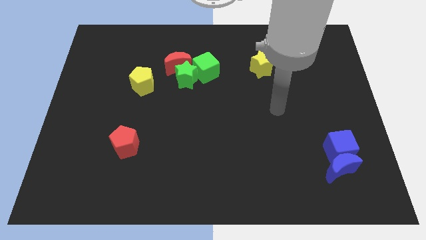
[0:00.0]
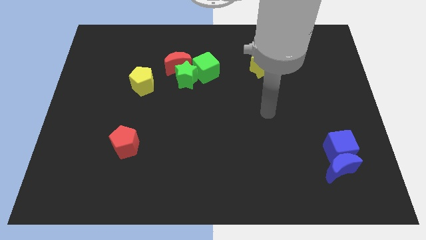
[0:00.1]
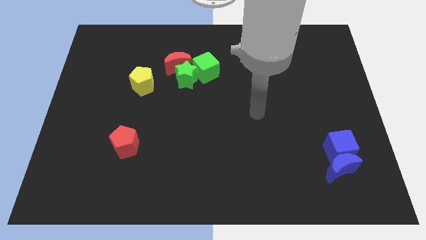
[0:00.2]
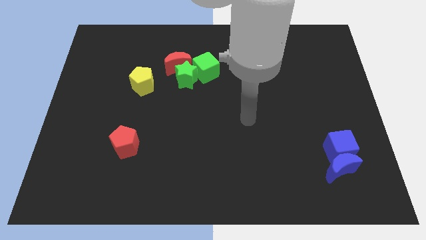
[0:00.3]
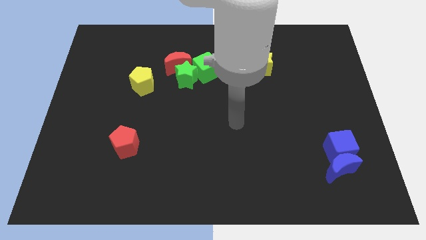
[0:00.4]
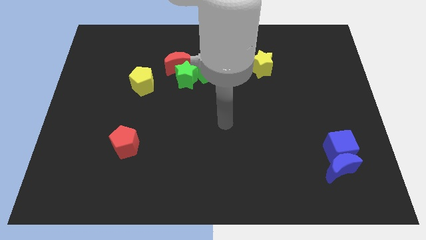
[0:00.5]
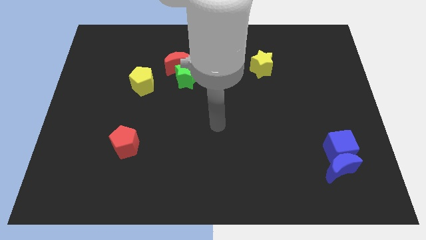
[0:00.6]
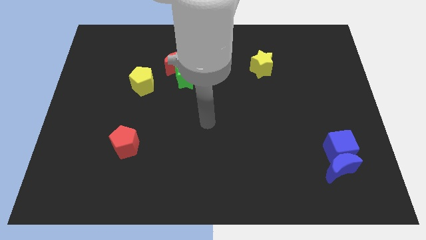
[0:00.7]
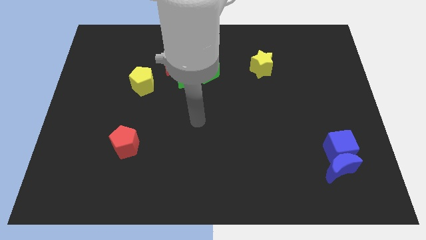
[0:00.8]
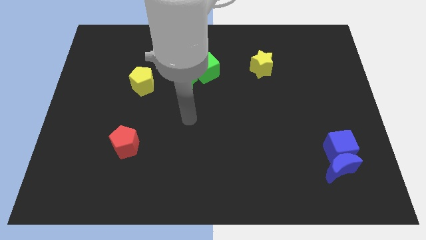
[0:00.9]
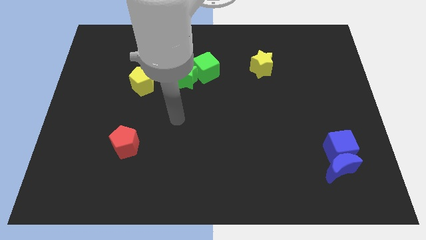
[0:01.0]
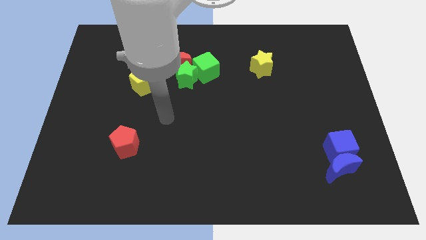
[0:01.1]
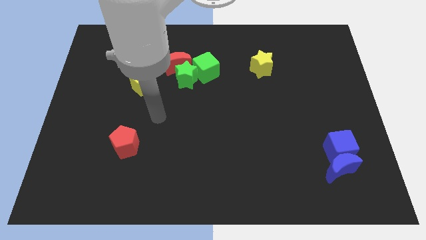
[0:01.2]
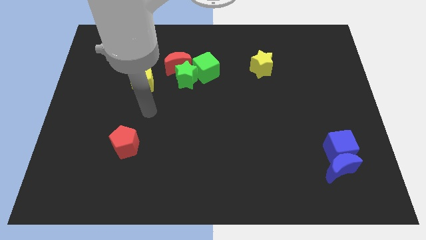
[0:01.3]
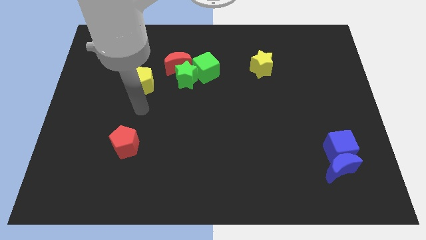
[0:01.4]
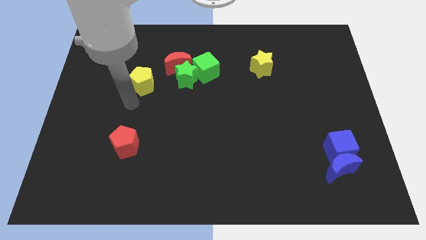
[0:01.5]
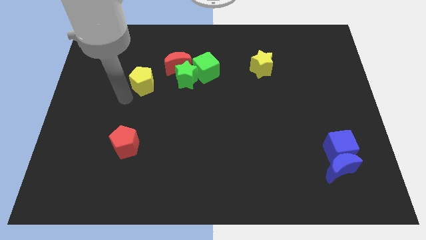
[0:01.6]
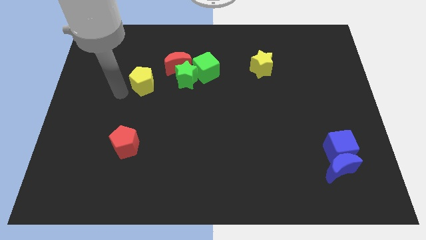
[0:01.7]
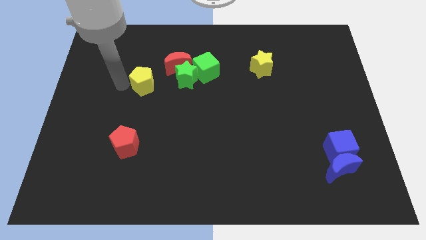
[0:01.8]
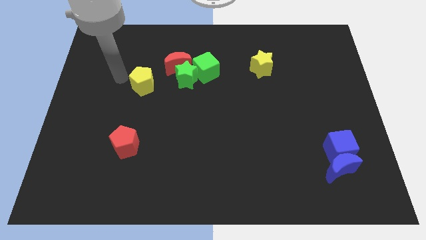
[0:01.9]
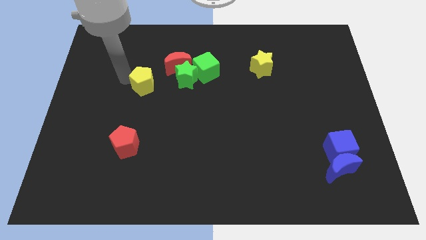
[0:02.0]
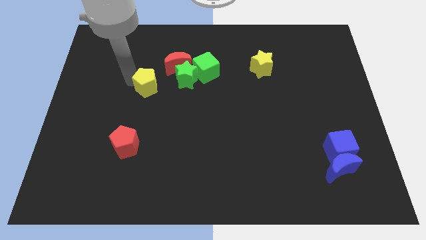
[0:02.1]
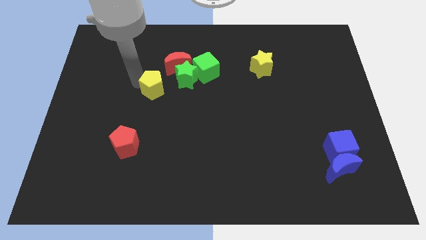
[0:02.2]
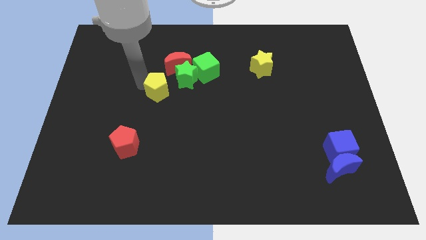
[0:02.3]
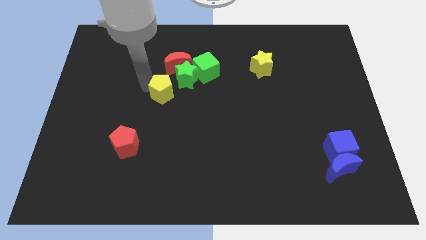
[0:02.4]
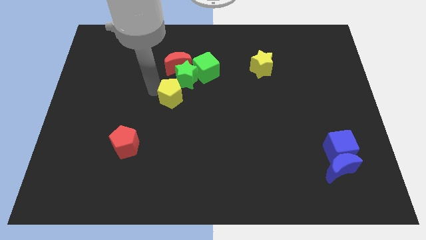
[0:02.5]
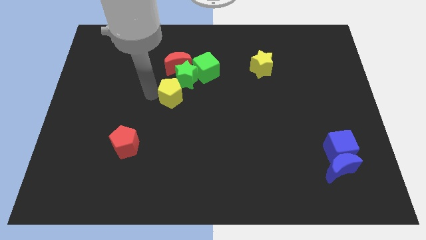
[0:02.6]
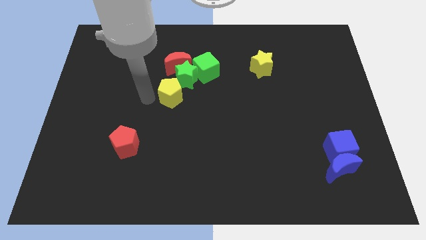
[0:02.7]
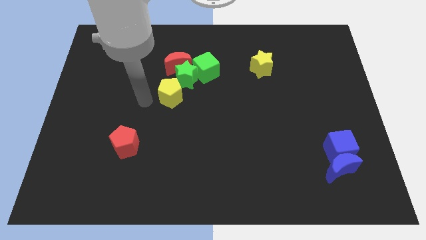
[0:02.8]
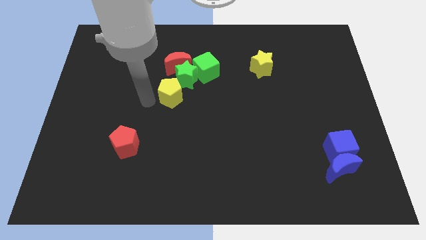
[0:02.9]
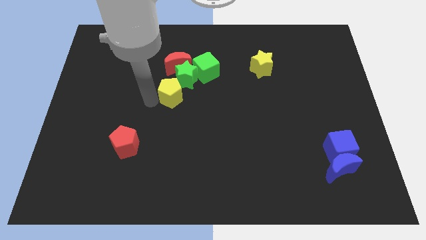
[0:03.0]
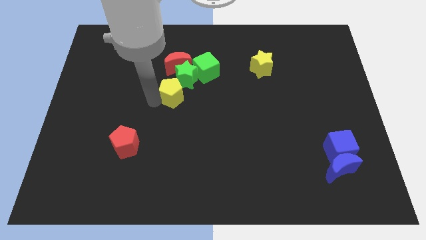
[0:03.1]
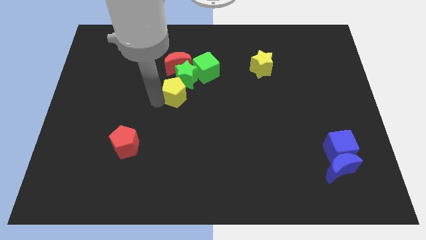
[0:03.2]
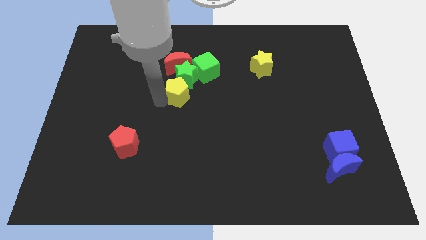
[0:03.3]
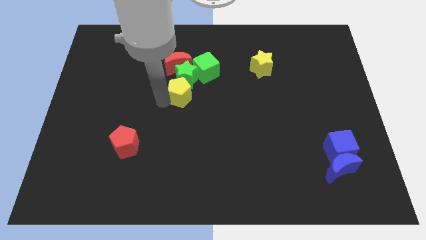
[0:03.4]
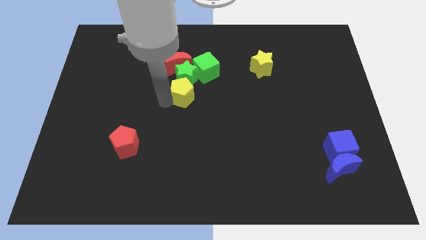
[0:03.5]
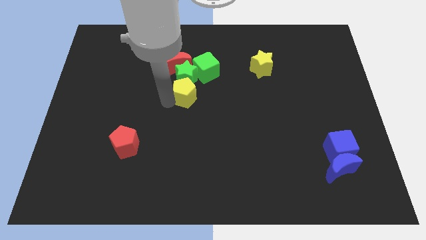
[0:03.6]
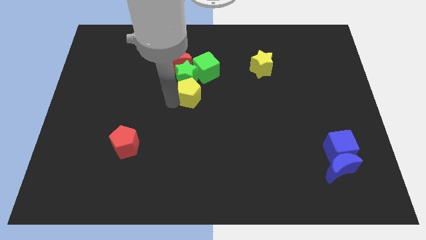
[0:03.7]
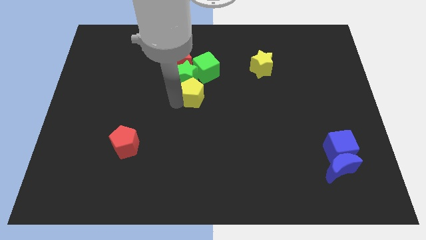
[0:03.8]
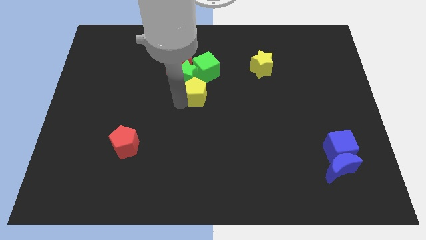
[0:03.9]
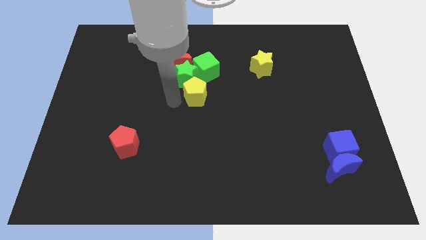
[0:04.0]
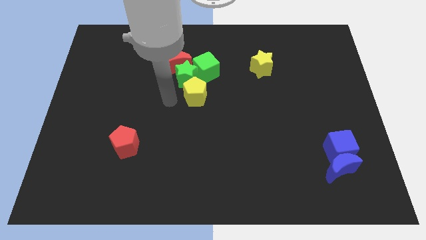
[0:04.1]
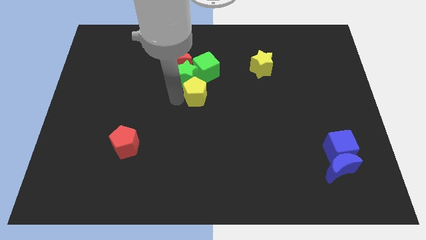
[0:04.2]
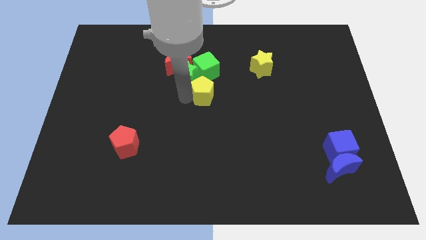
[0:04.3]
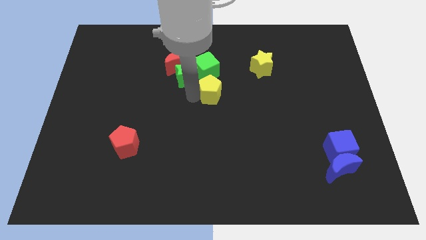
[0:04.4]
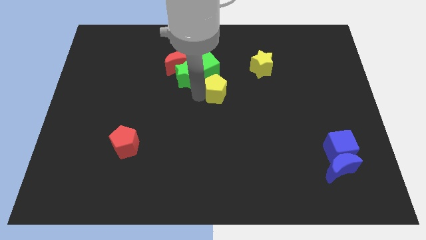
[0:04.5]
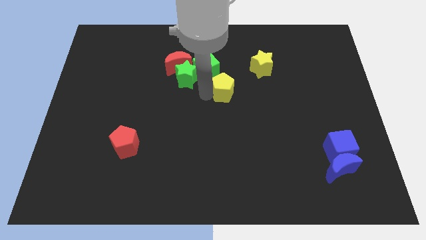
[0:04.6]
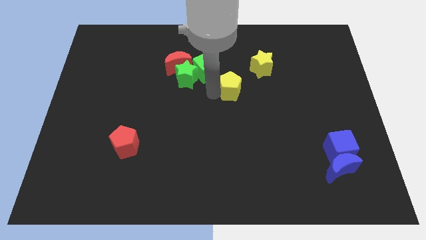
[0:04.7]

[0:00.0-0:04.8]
move the yellow pentagon to the right

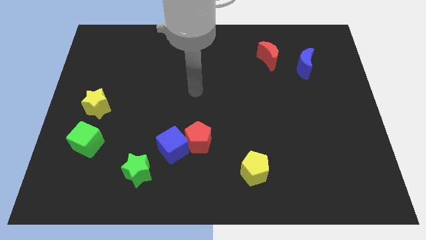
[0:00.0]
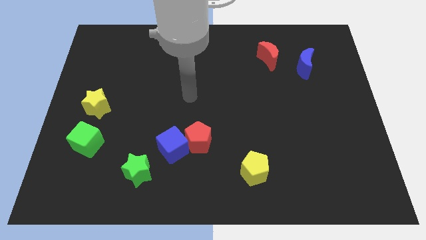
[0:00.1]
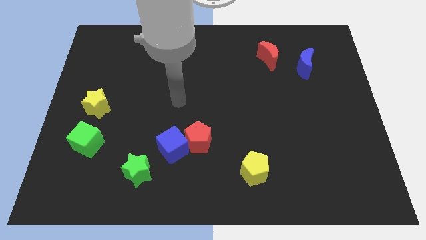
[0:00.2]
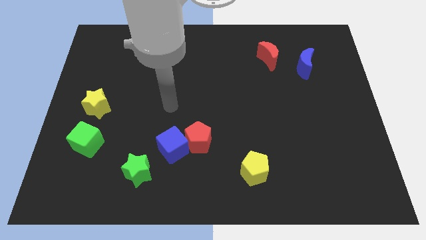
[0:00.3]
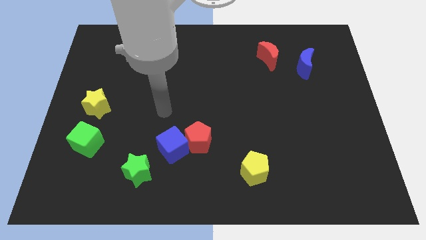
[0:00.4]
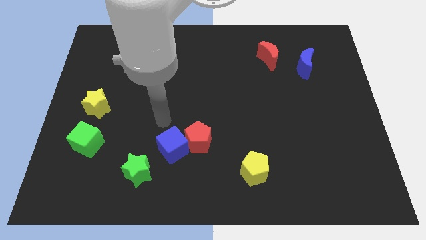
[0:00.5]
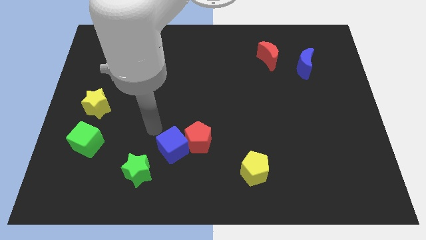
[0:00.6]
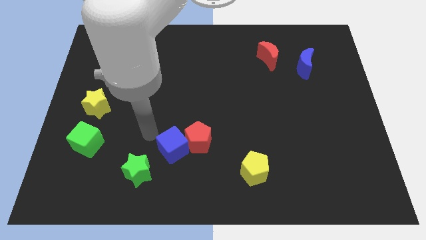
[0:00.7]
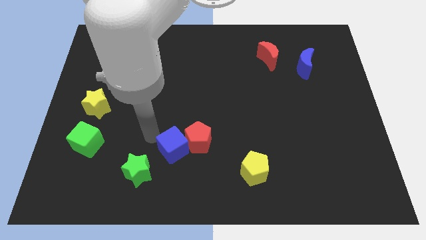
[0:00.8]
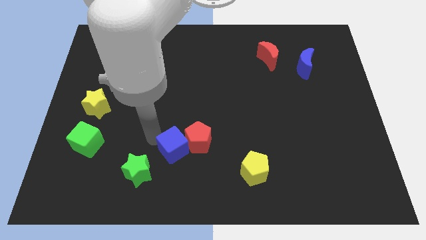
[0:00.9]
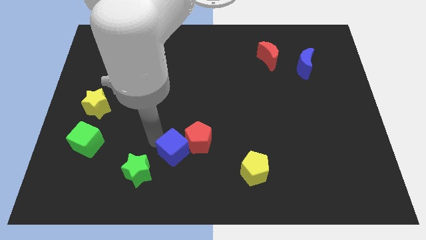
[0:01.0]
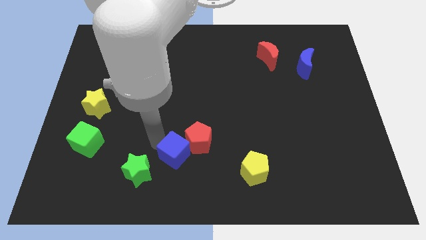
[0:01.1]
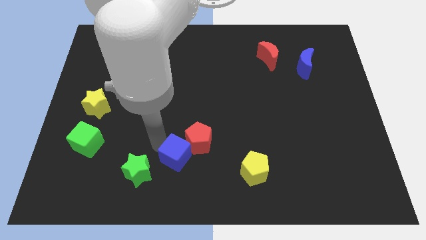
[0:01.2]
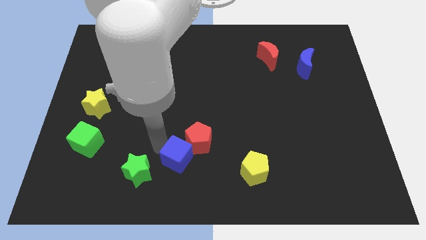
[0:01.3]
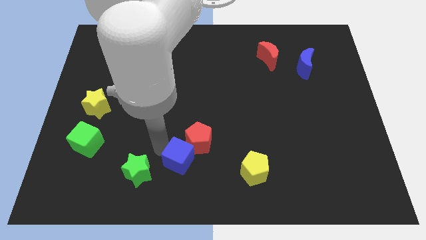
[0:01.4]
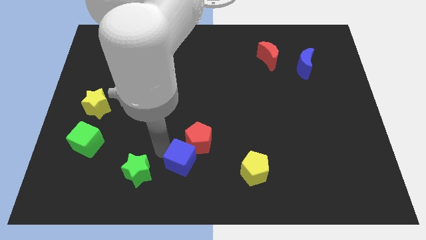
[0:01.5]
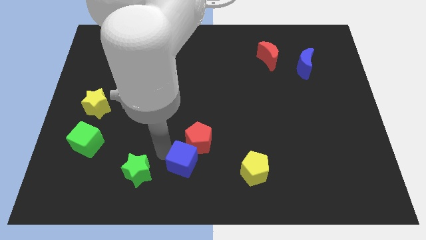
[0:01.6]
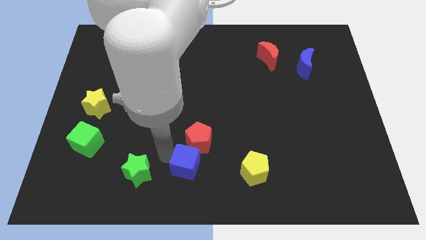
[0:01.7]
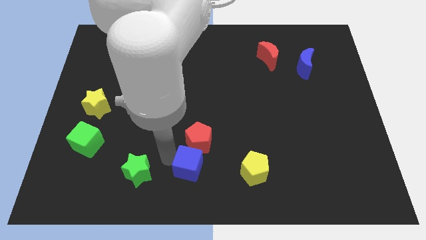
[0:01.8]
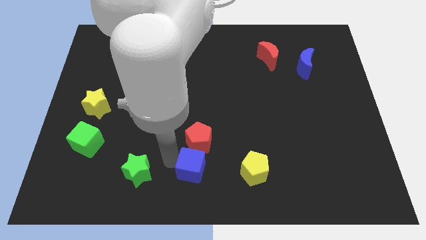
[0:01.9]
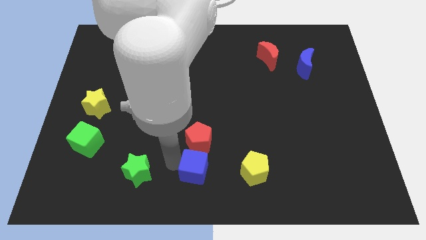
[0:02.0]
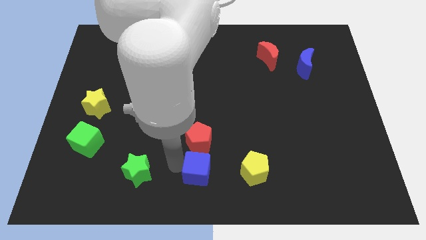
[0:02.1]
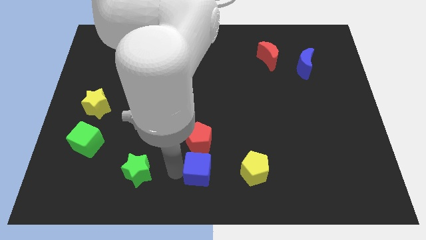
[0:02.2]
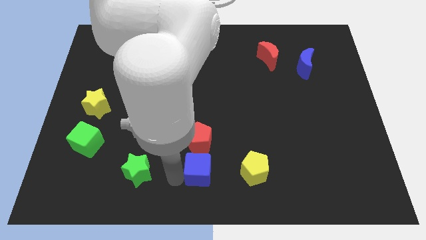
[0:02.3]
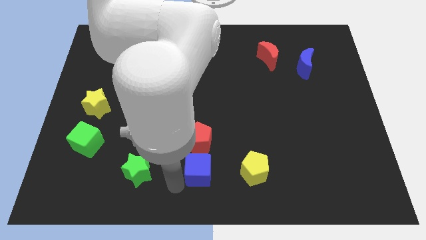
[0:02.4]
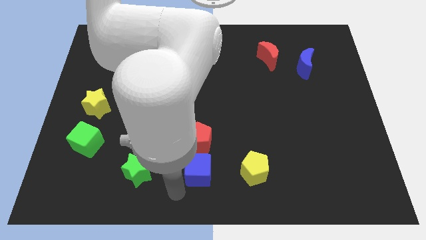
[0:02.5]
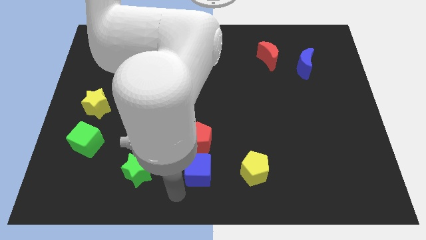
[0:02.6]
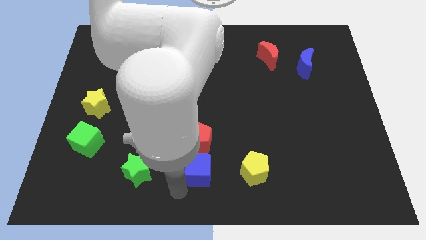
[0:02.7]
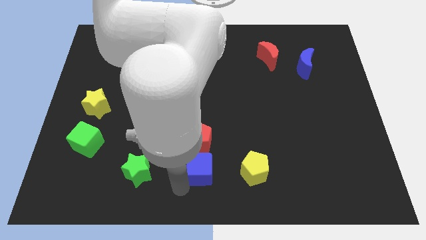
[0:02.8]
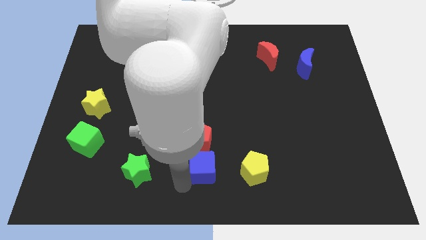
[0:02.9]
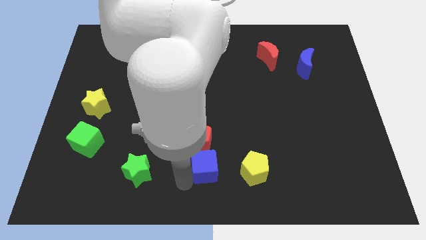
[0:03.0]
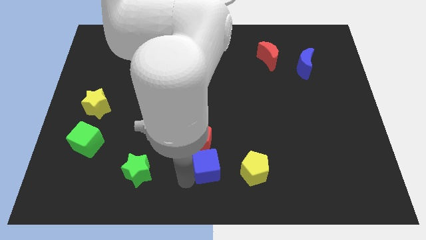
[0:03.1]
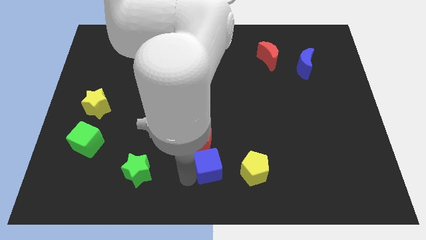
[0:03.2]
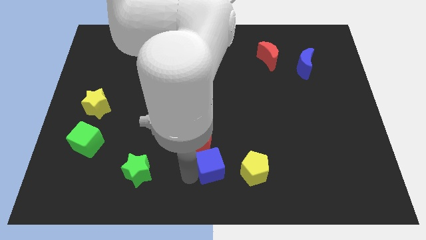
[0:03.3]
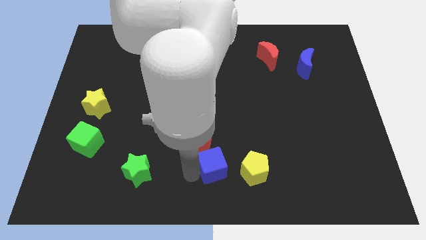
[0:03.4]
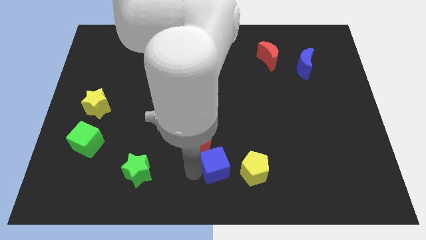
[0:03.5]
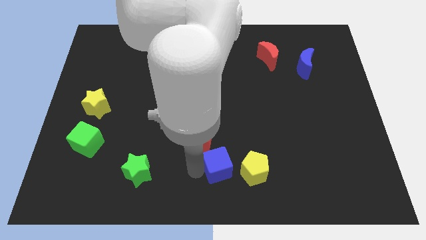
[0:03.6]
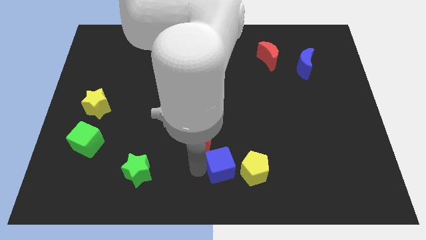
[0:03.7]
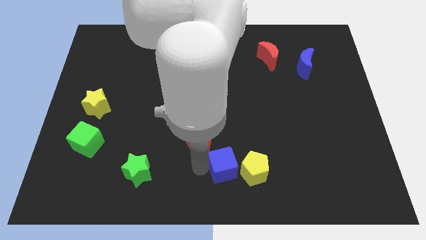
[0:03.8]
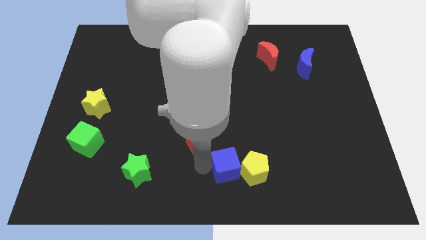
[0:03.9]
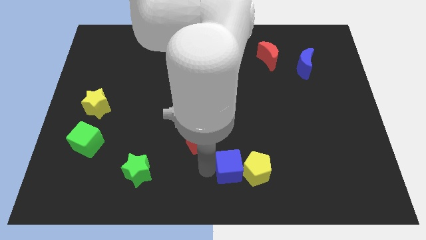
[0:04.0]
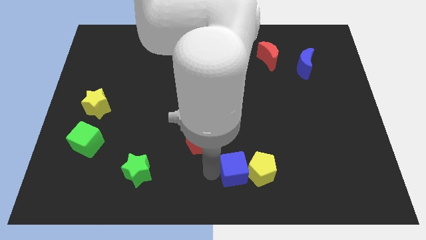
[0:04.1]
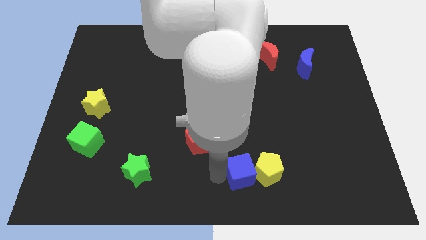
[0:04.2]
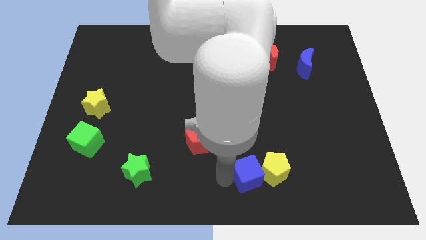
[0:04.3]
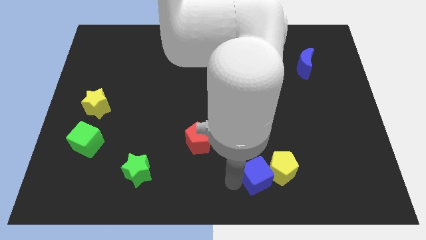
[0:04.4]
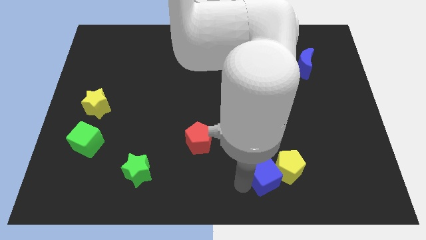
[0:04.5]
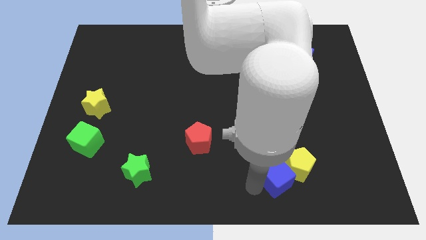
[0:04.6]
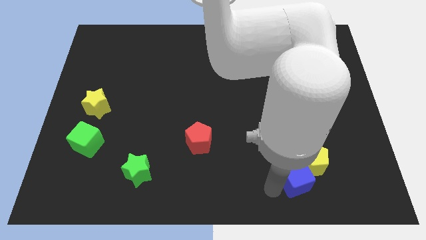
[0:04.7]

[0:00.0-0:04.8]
push the blue cube right
